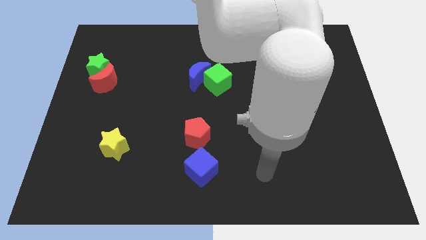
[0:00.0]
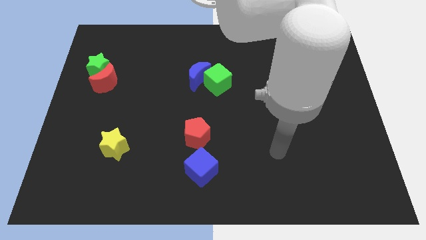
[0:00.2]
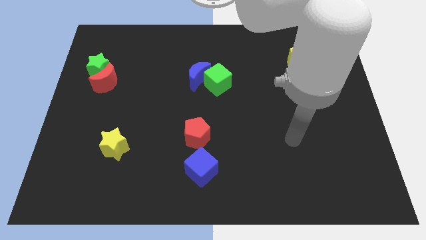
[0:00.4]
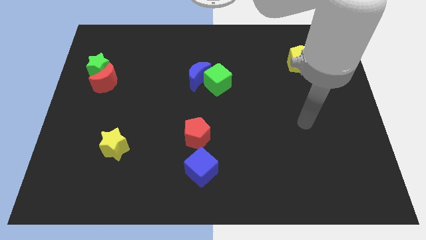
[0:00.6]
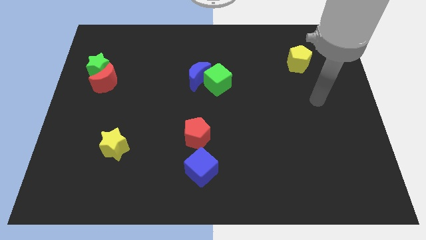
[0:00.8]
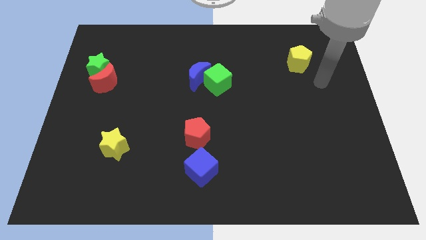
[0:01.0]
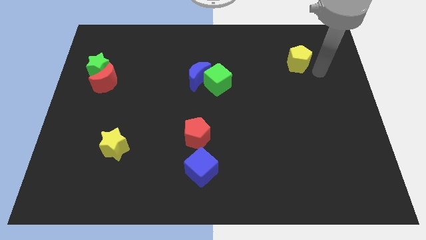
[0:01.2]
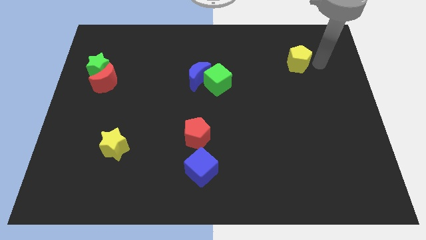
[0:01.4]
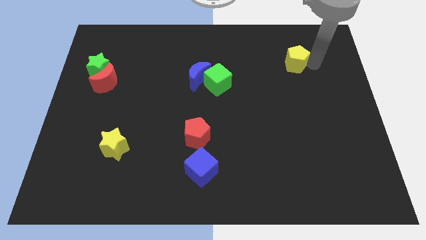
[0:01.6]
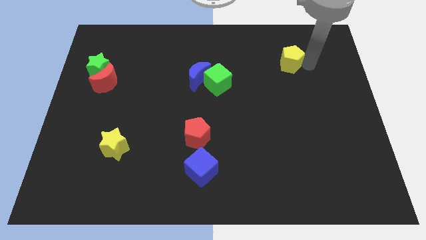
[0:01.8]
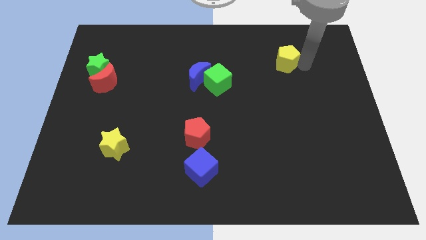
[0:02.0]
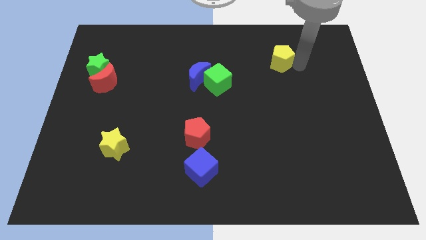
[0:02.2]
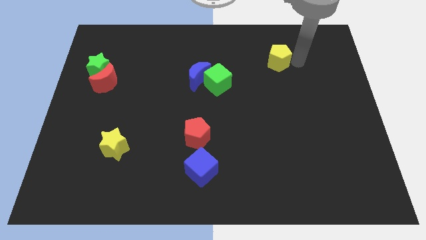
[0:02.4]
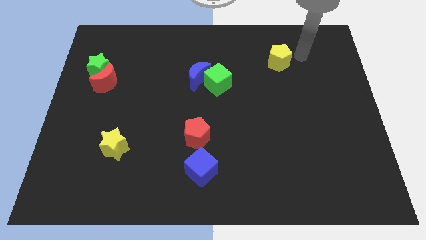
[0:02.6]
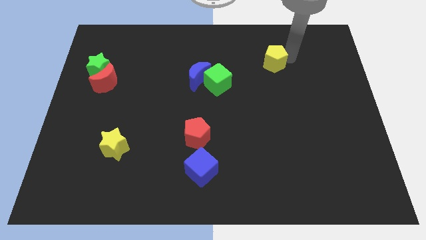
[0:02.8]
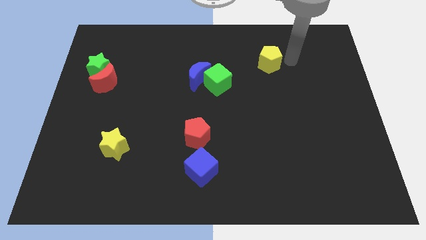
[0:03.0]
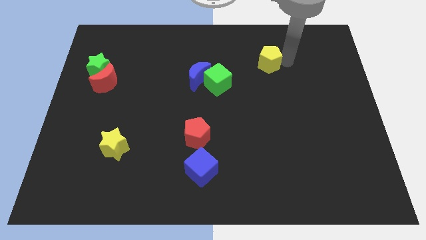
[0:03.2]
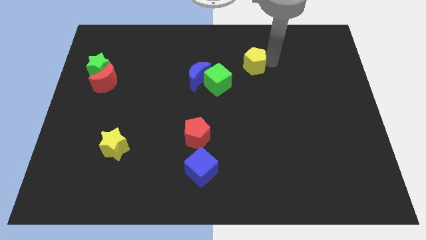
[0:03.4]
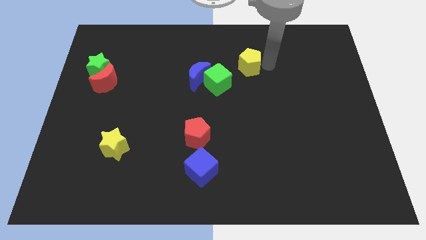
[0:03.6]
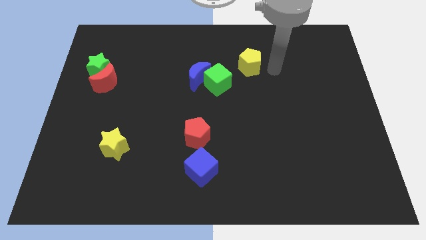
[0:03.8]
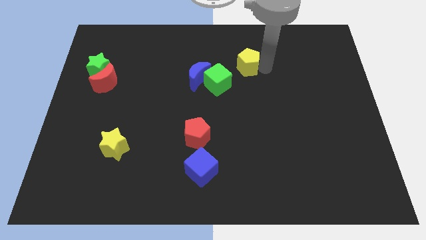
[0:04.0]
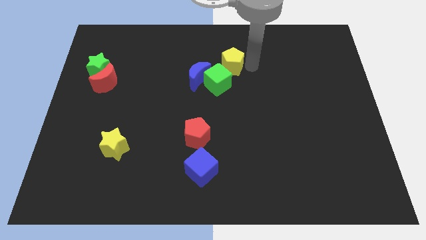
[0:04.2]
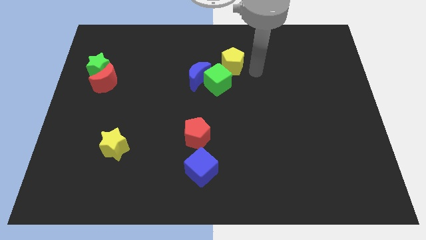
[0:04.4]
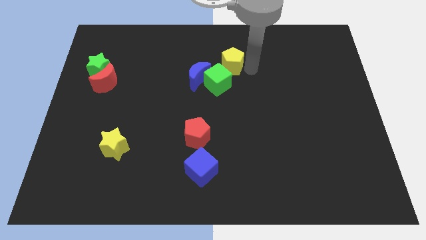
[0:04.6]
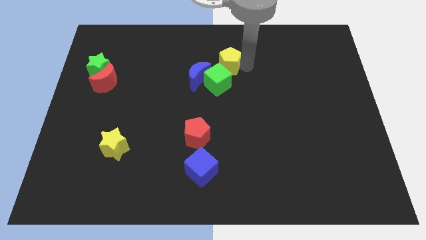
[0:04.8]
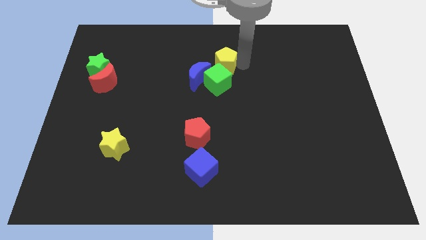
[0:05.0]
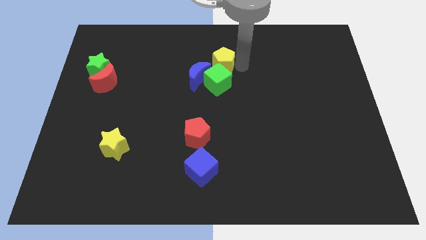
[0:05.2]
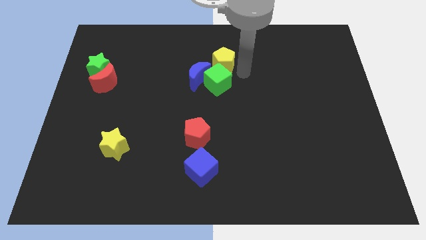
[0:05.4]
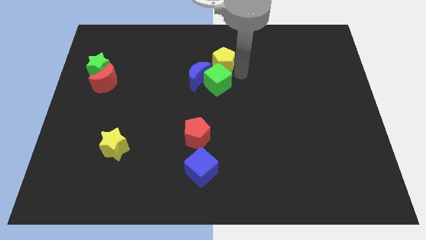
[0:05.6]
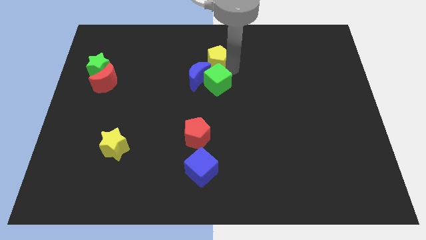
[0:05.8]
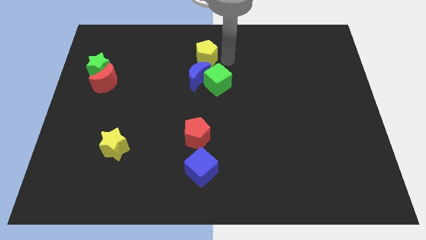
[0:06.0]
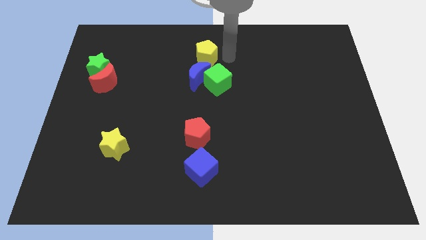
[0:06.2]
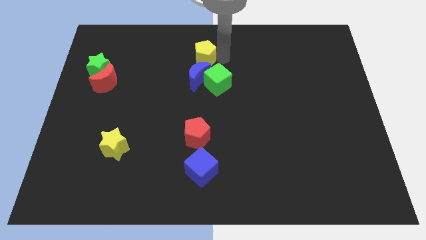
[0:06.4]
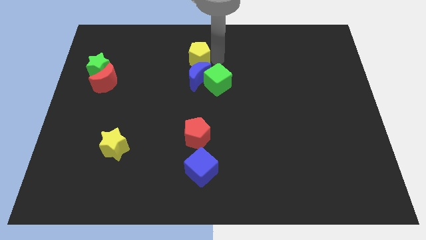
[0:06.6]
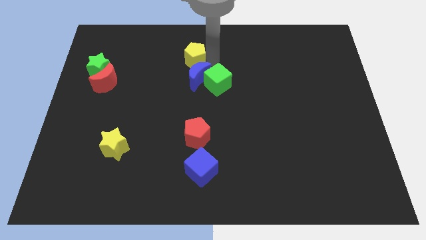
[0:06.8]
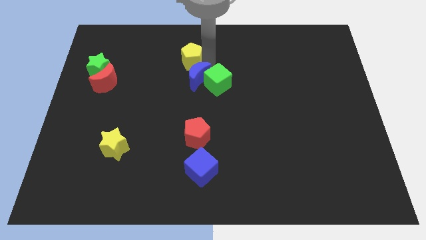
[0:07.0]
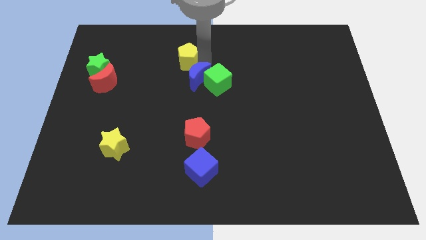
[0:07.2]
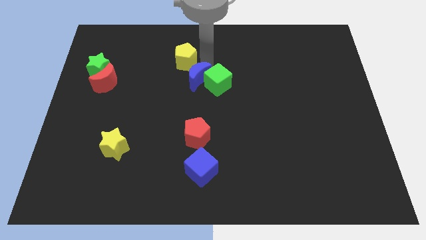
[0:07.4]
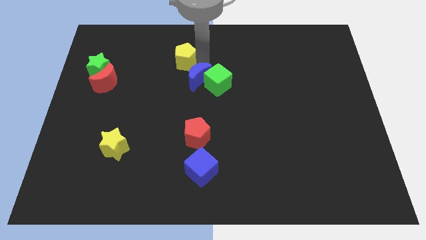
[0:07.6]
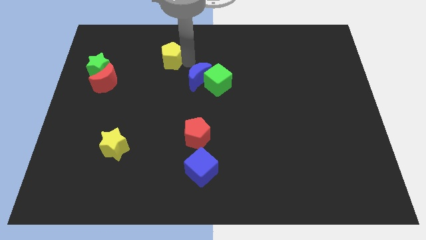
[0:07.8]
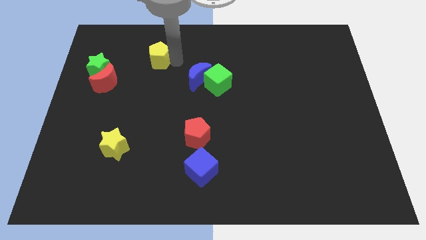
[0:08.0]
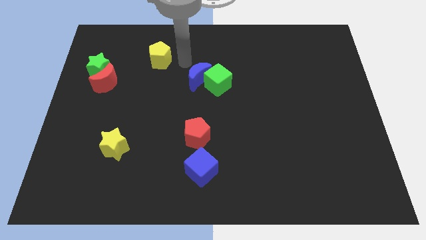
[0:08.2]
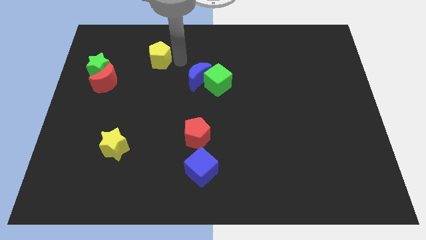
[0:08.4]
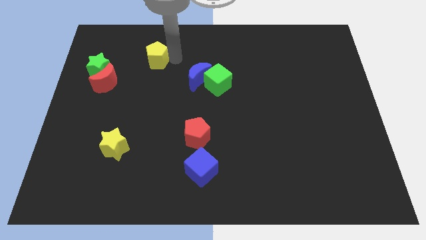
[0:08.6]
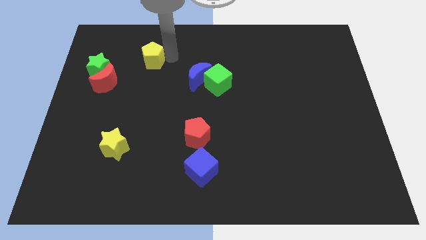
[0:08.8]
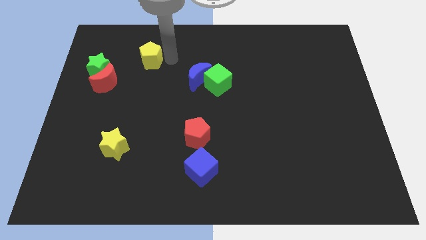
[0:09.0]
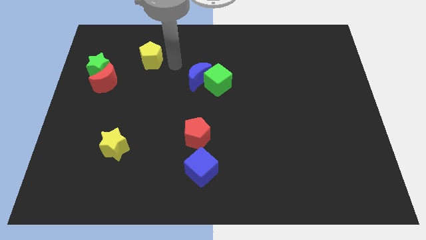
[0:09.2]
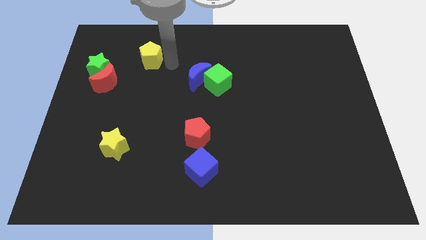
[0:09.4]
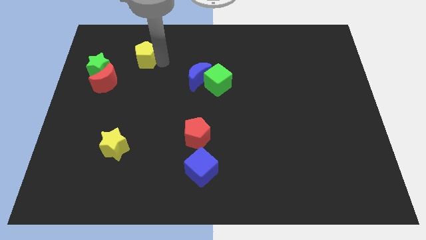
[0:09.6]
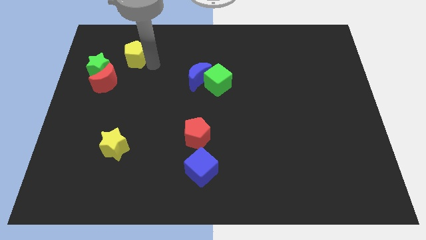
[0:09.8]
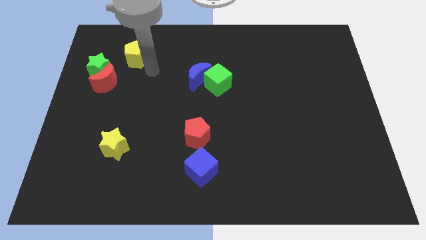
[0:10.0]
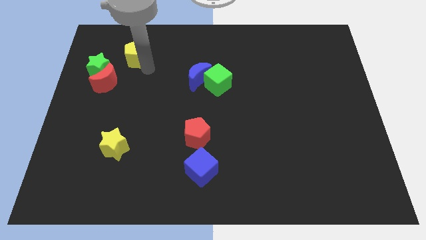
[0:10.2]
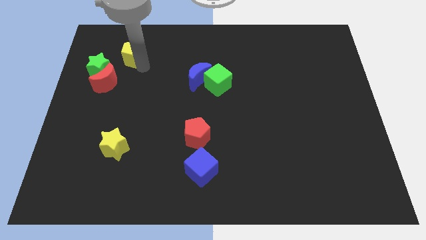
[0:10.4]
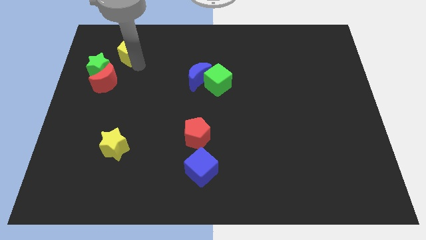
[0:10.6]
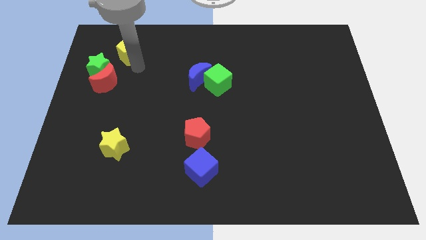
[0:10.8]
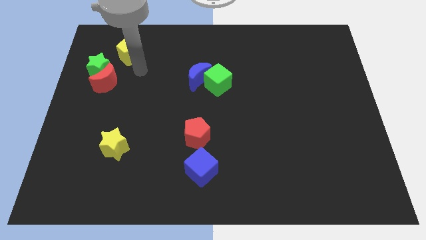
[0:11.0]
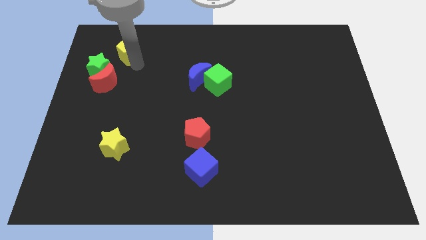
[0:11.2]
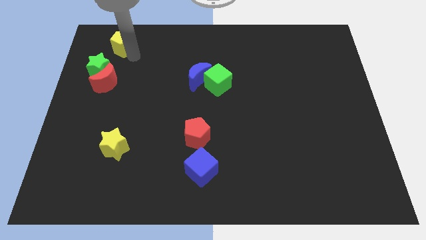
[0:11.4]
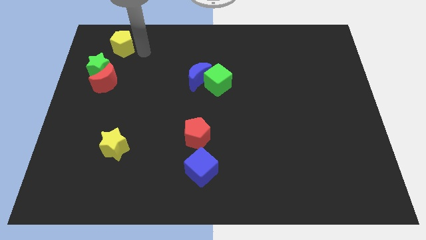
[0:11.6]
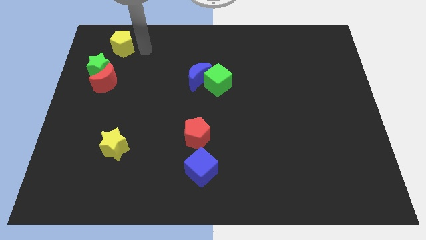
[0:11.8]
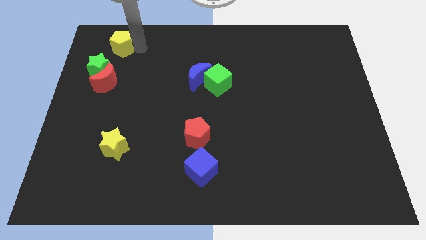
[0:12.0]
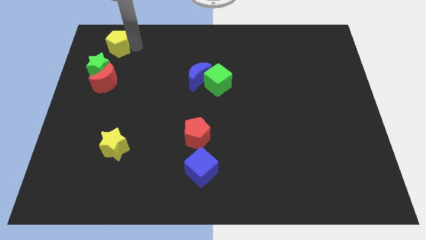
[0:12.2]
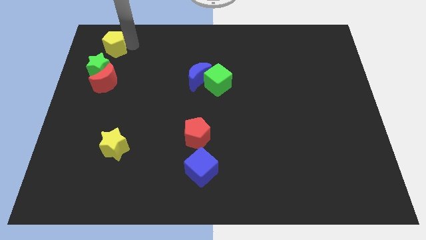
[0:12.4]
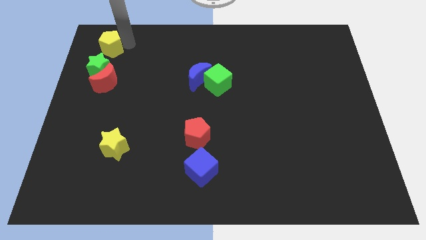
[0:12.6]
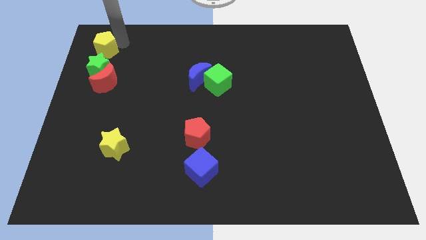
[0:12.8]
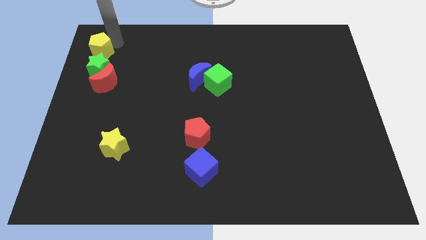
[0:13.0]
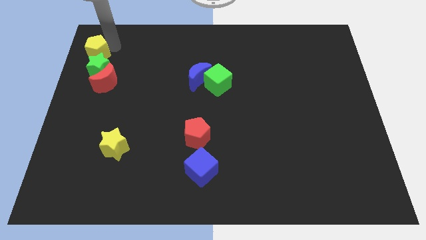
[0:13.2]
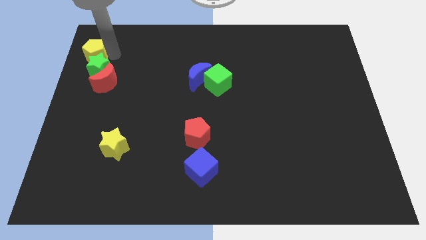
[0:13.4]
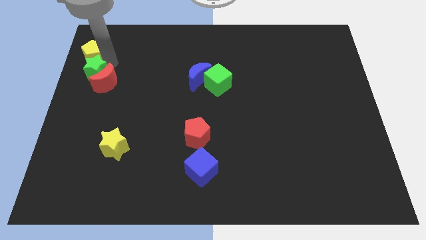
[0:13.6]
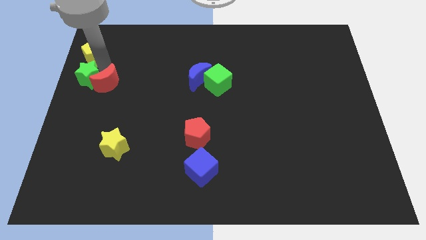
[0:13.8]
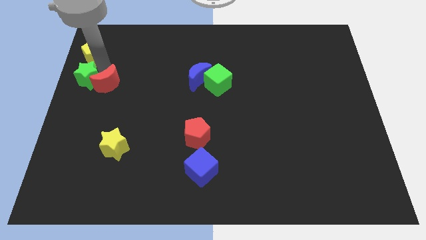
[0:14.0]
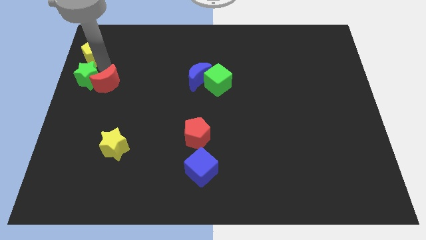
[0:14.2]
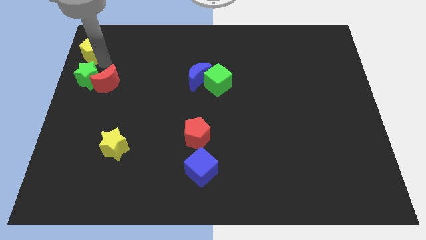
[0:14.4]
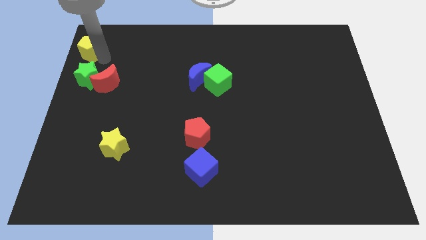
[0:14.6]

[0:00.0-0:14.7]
put the yellow pentagon to the top left of the board
